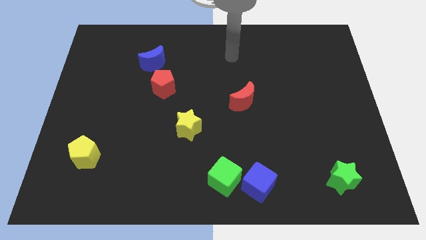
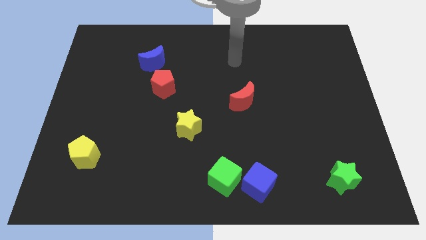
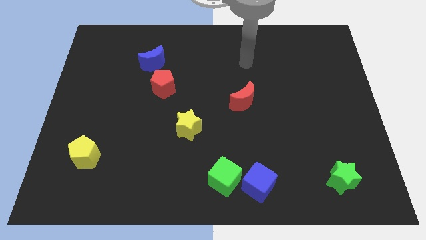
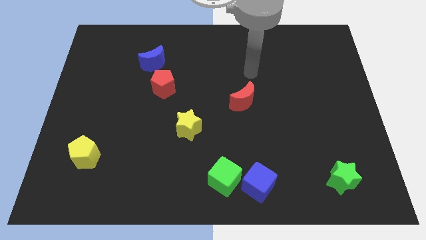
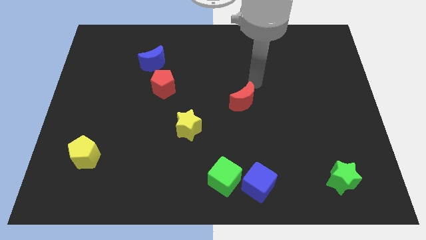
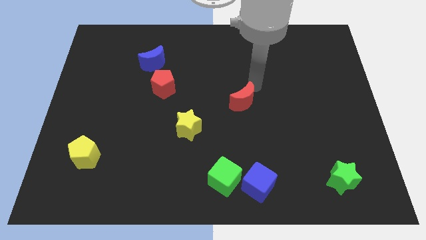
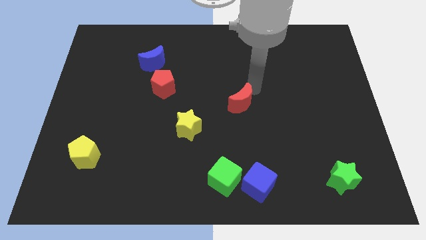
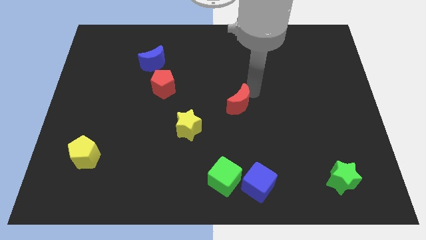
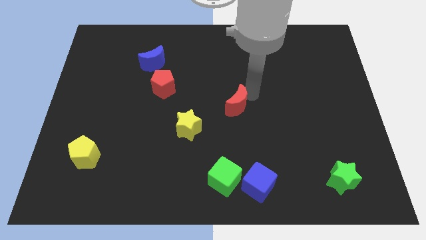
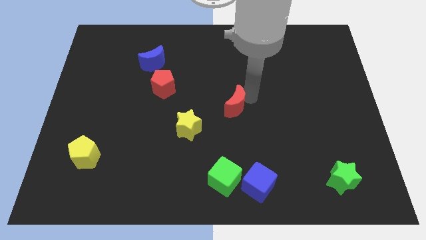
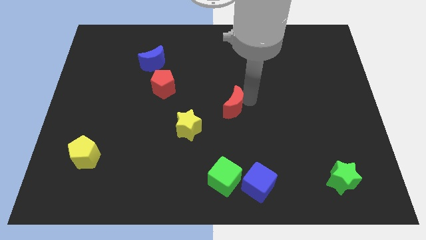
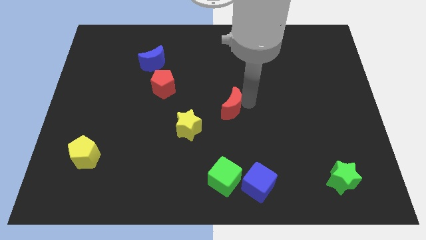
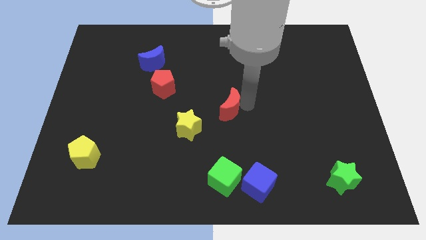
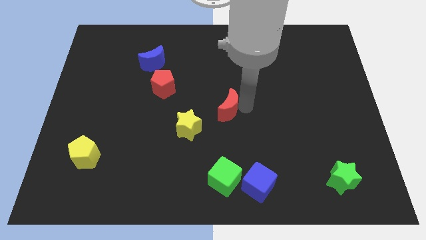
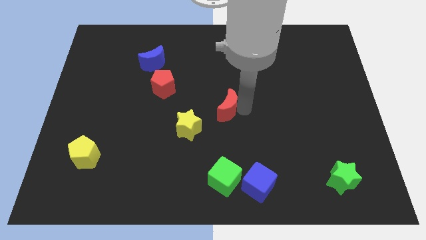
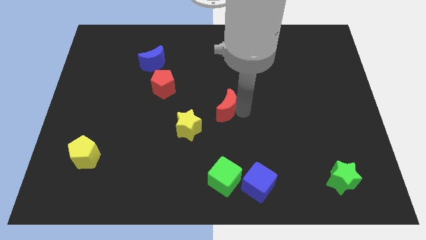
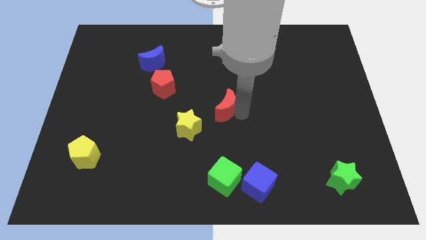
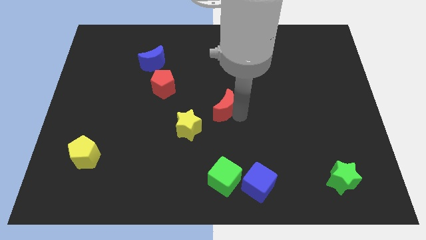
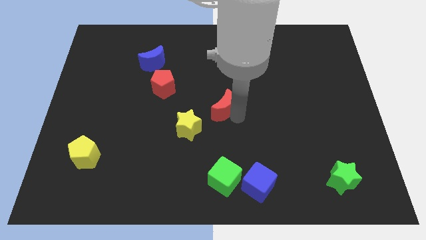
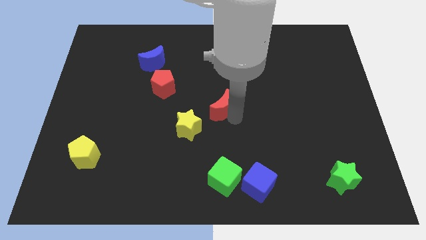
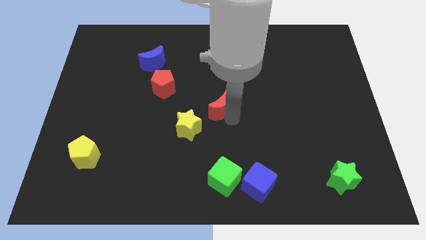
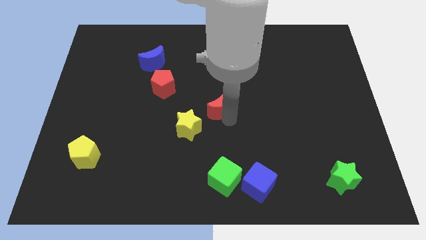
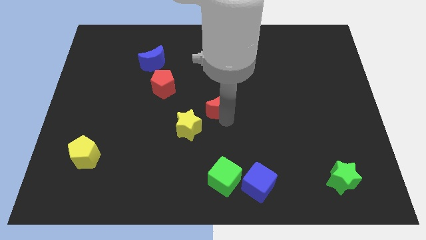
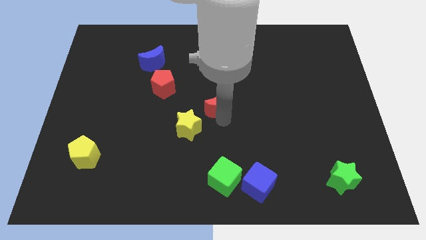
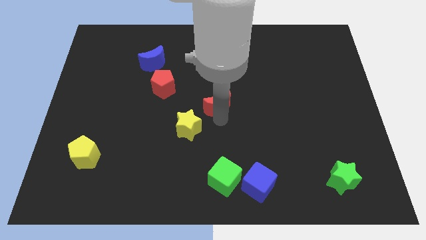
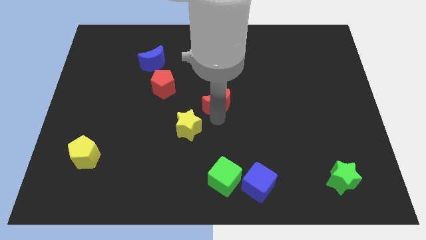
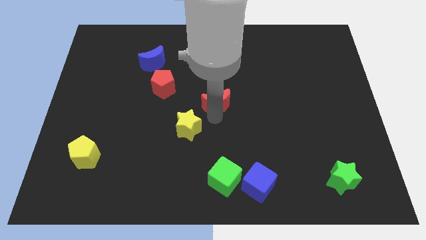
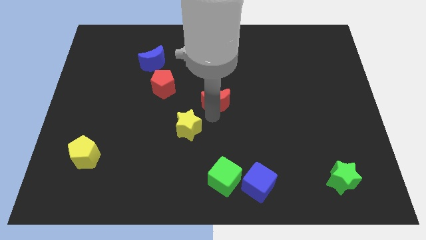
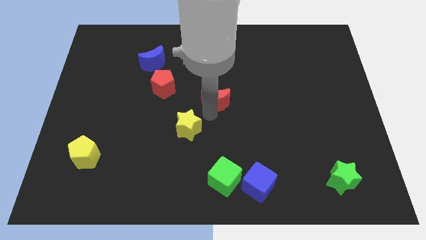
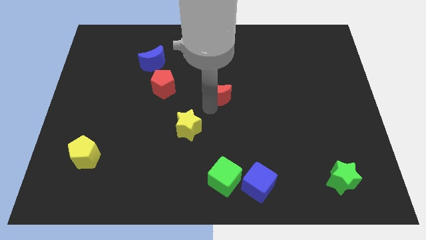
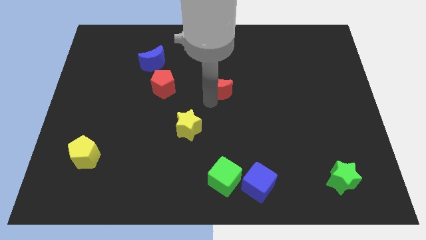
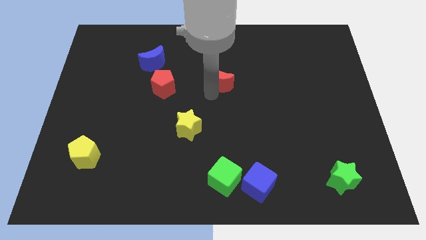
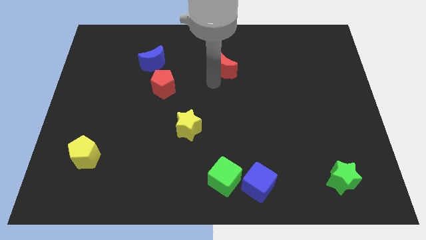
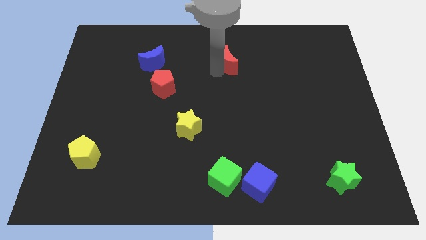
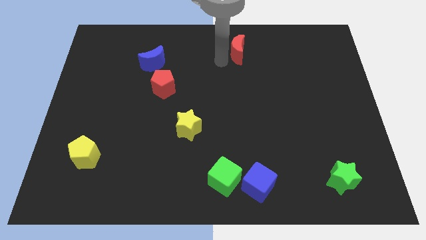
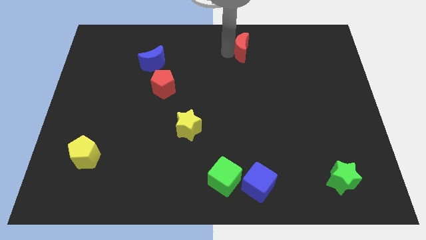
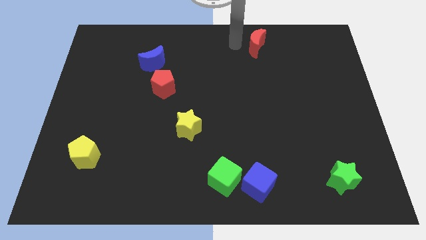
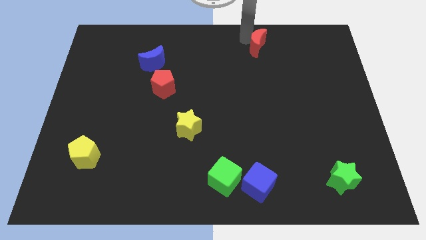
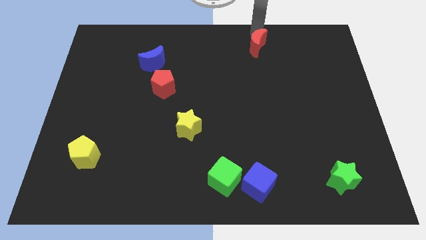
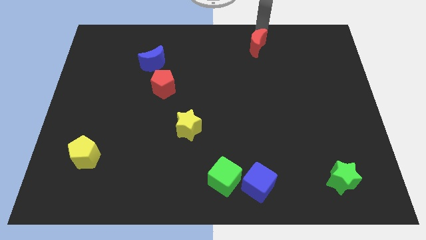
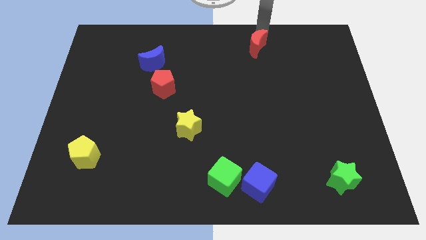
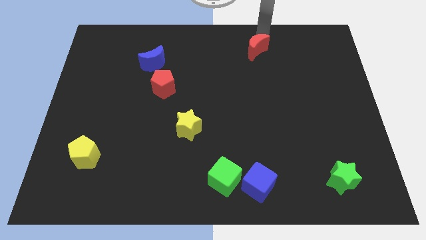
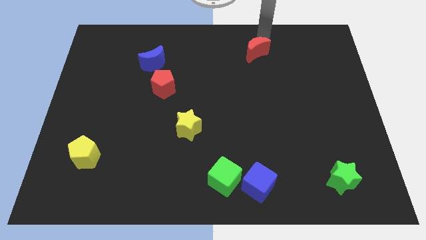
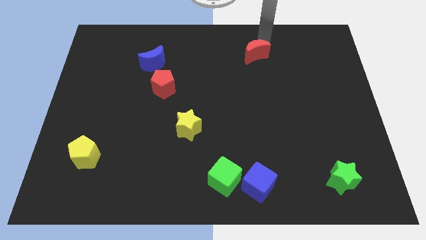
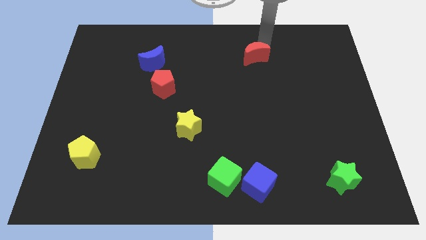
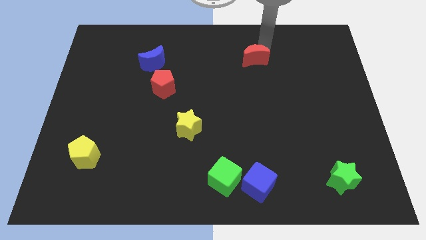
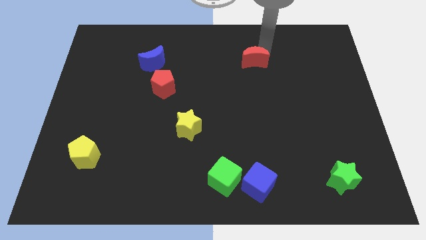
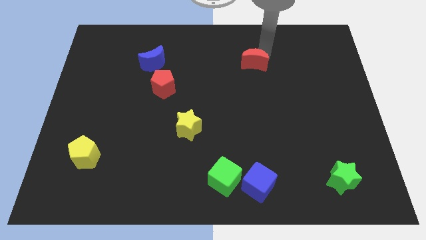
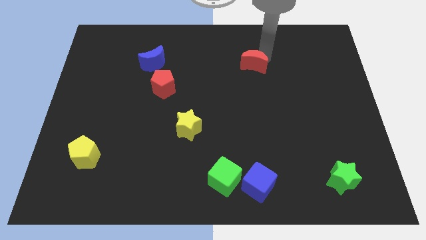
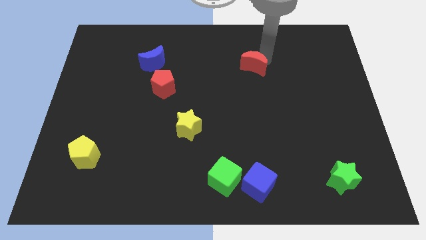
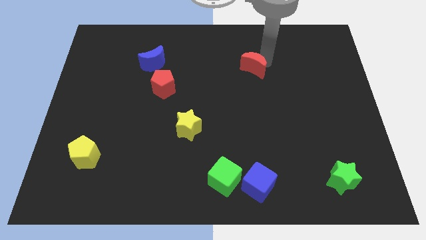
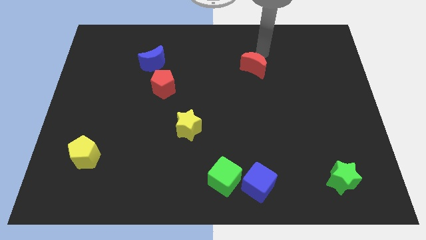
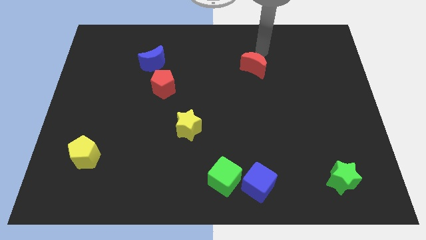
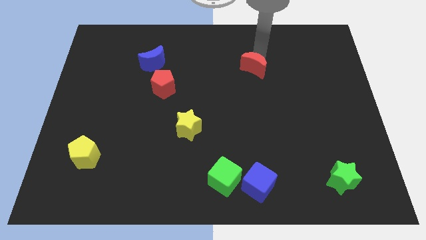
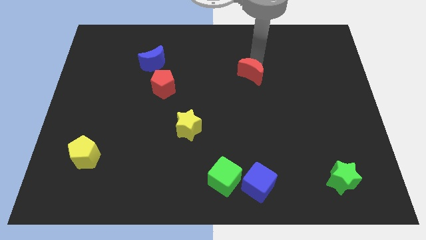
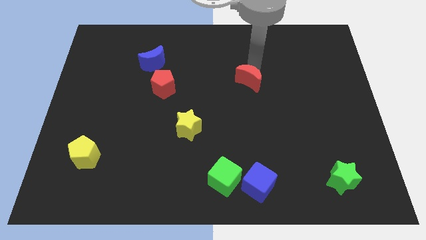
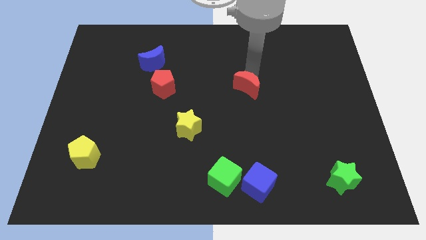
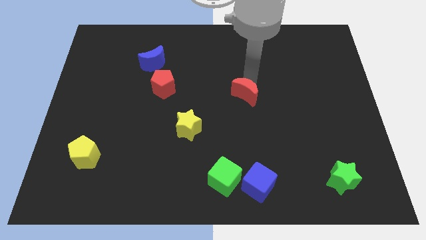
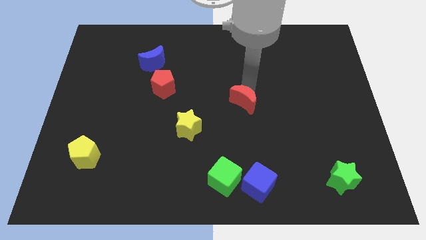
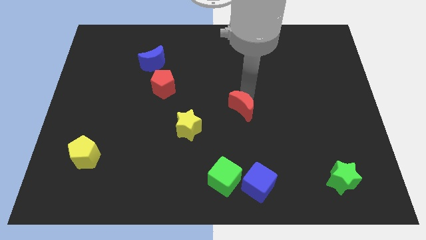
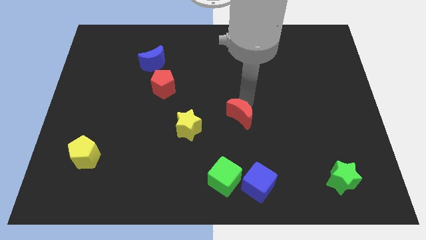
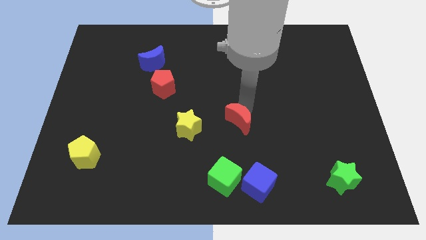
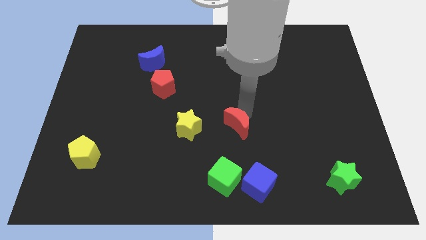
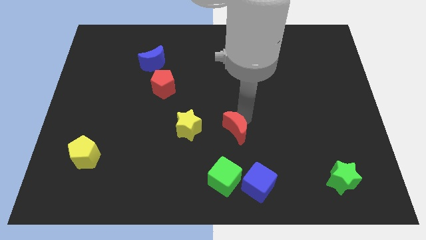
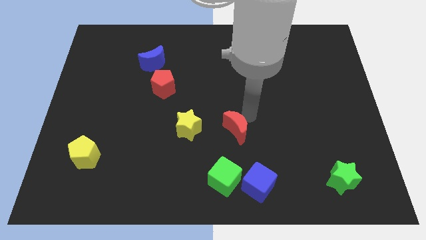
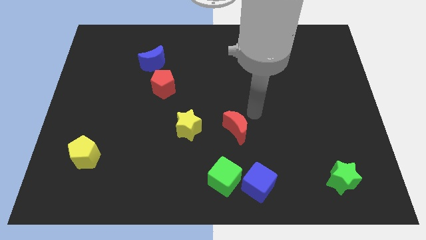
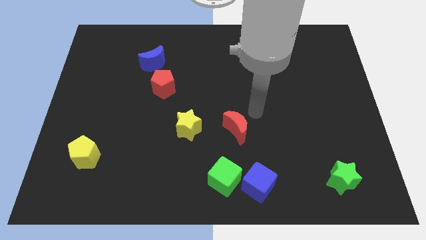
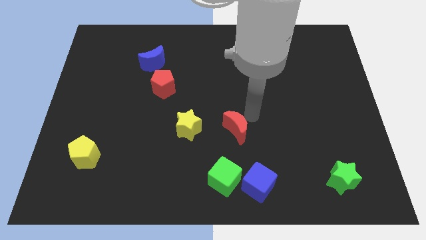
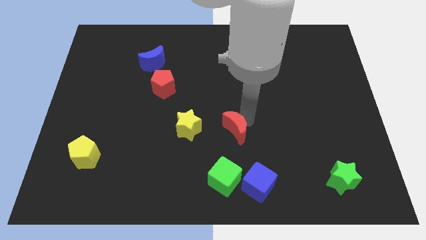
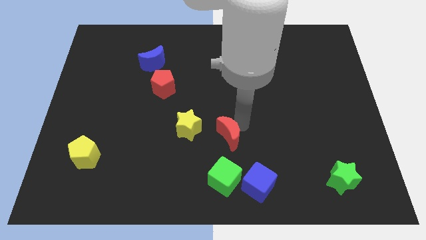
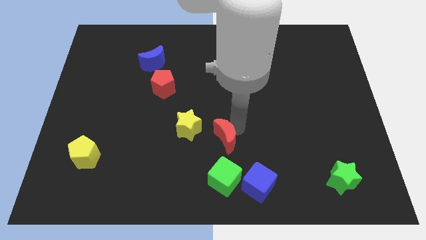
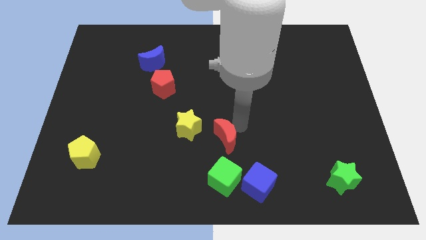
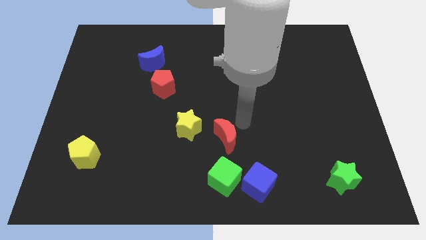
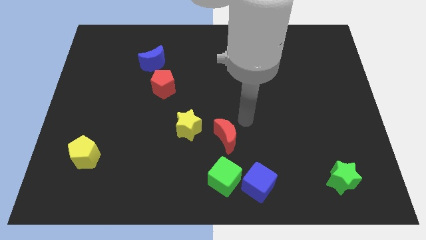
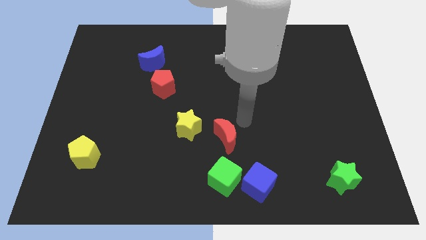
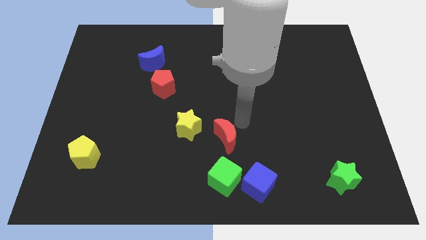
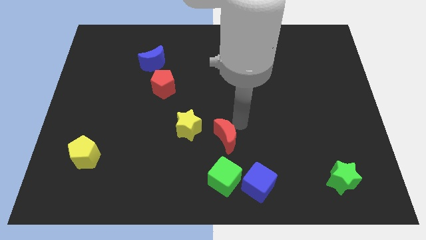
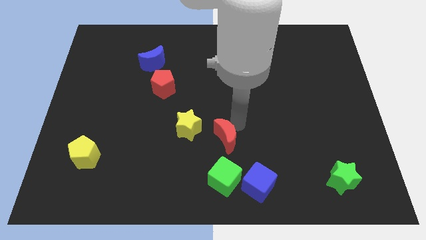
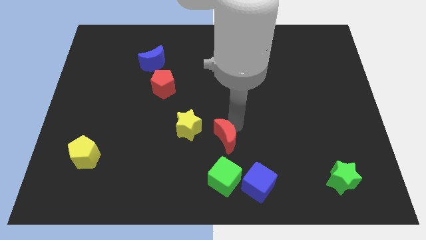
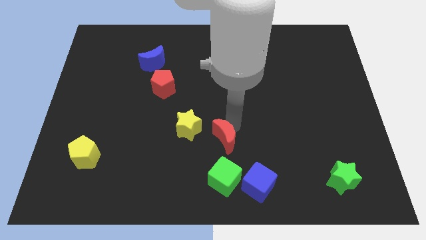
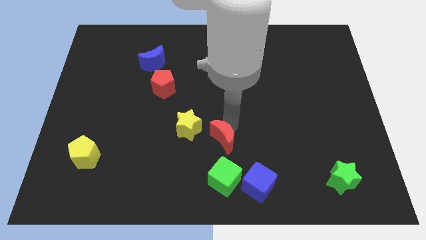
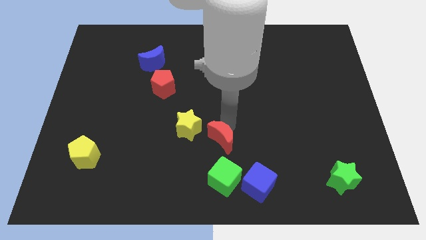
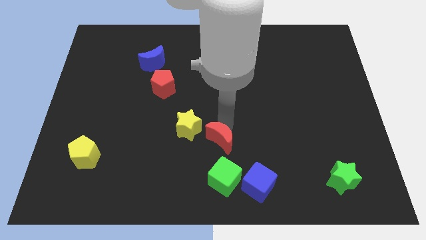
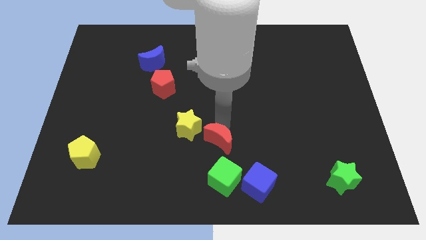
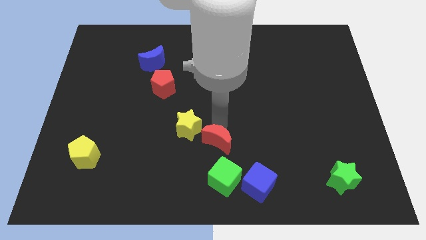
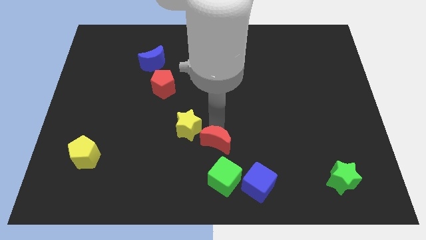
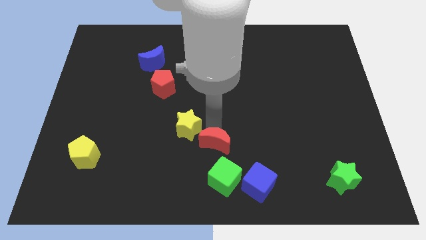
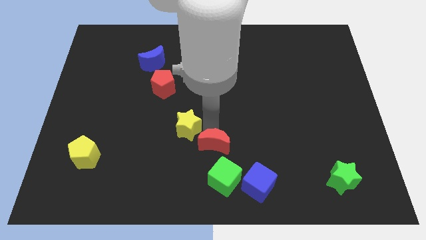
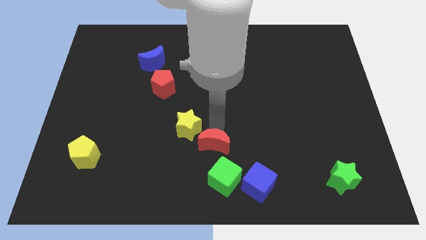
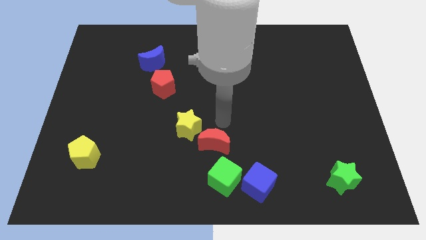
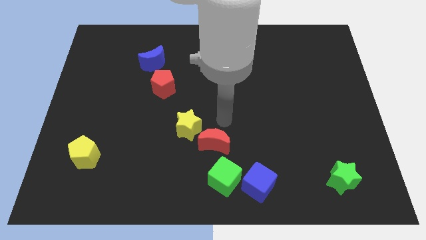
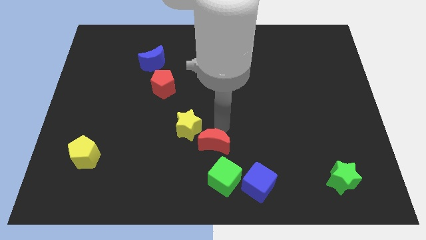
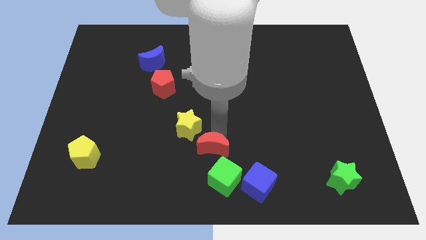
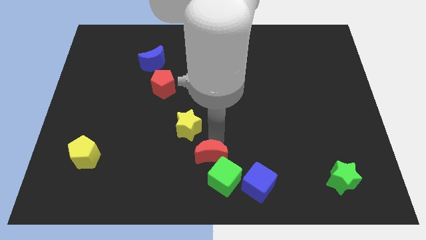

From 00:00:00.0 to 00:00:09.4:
move the red moon to the bottom side
